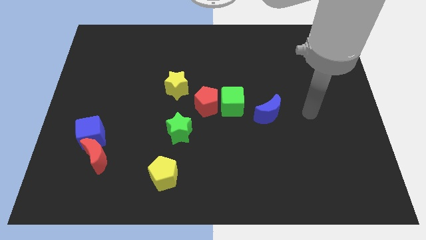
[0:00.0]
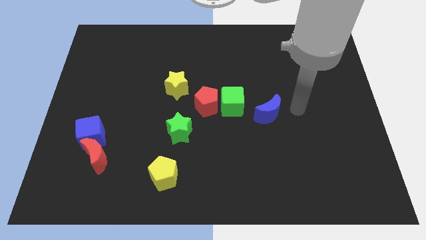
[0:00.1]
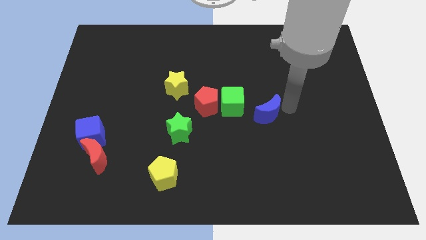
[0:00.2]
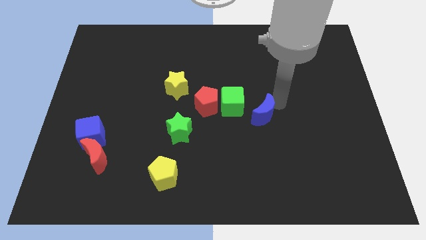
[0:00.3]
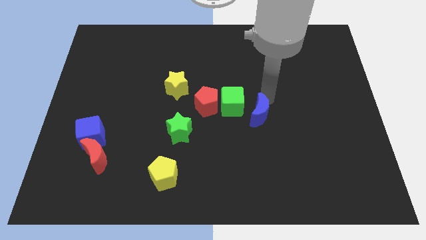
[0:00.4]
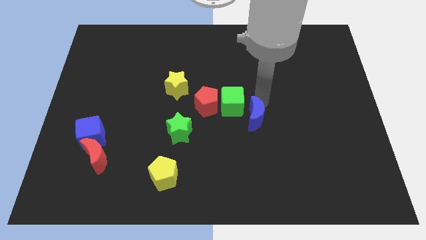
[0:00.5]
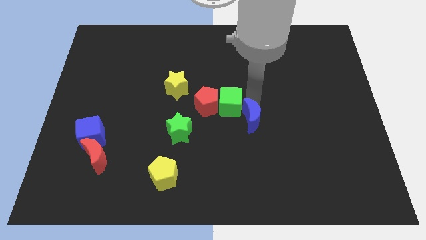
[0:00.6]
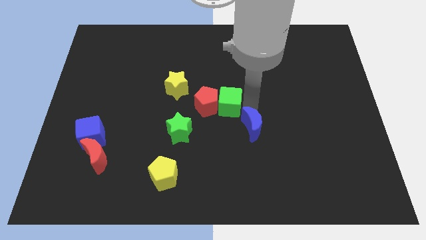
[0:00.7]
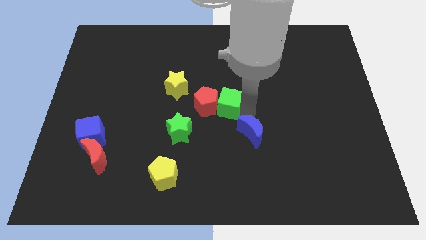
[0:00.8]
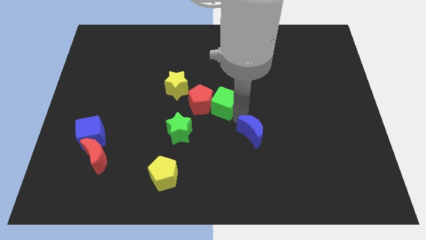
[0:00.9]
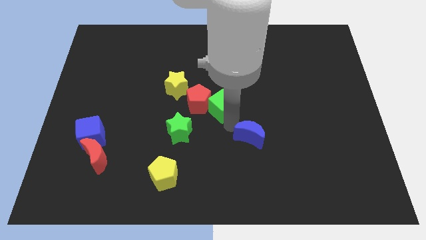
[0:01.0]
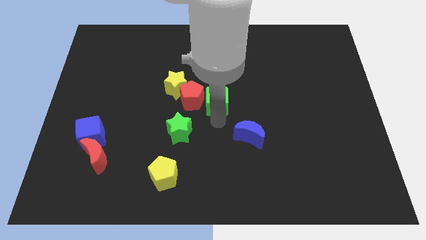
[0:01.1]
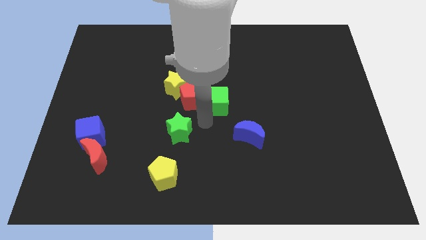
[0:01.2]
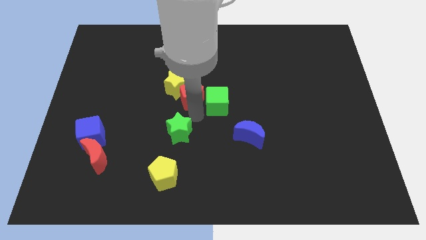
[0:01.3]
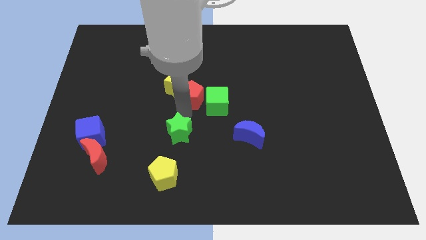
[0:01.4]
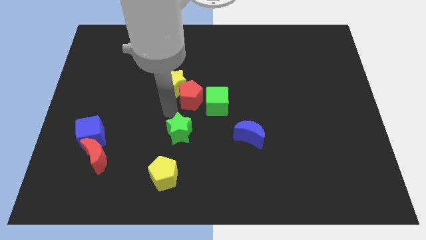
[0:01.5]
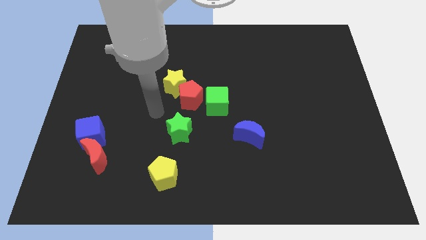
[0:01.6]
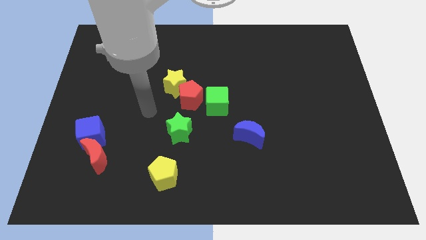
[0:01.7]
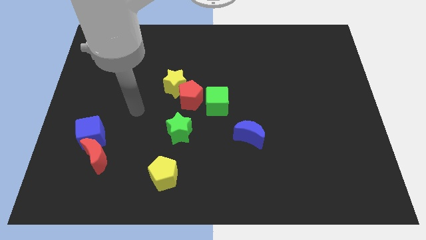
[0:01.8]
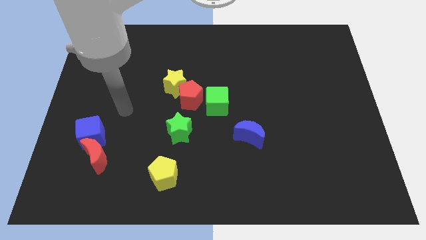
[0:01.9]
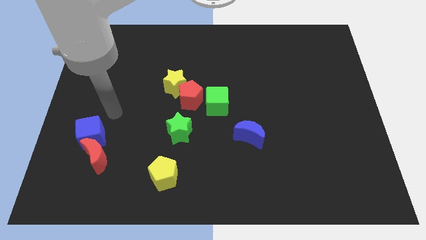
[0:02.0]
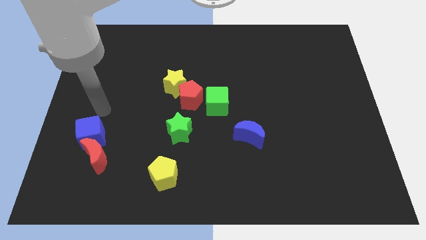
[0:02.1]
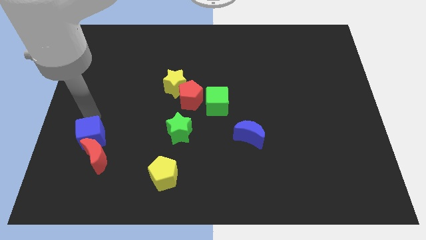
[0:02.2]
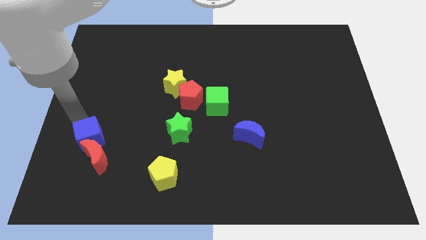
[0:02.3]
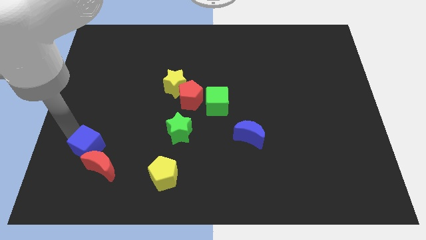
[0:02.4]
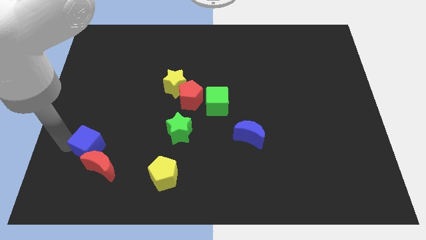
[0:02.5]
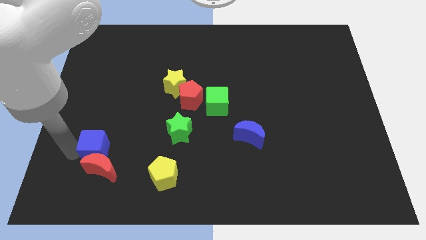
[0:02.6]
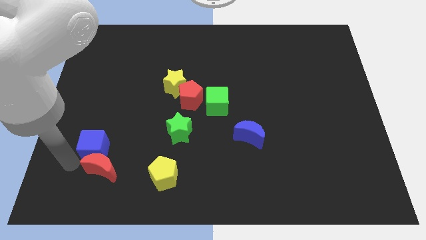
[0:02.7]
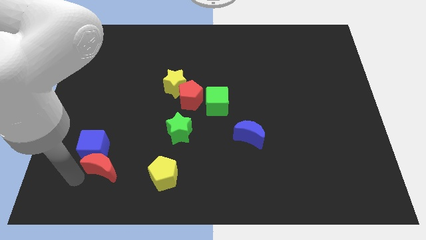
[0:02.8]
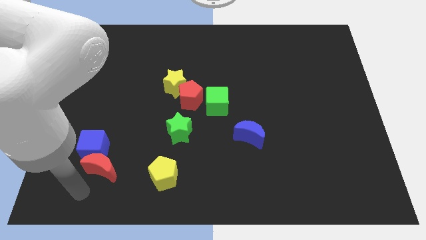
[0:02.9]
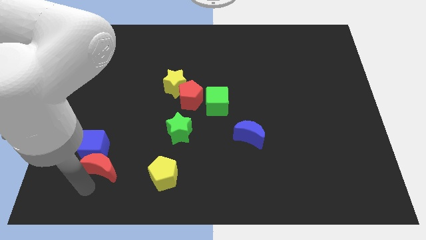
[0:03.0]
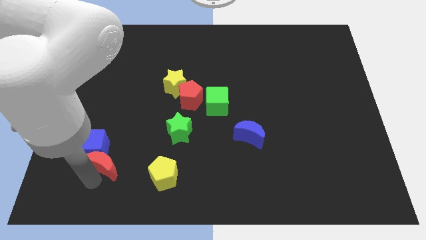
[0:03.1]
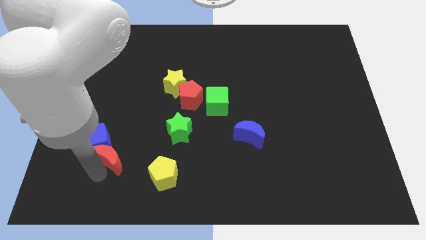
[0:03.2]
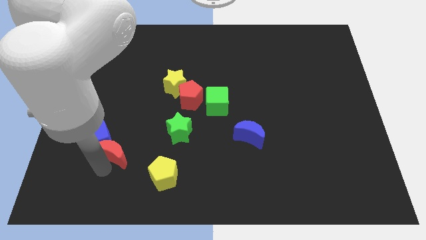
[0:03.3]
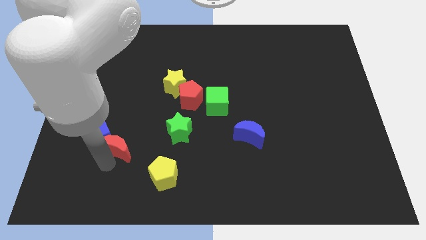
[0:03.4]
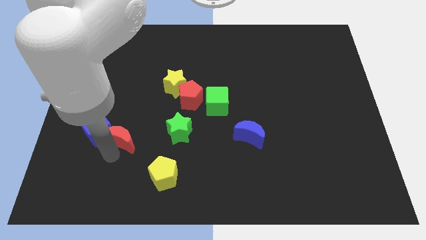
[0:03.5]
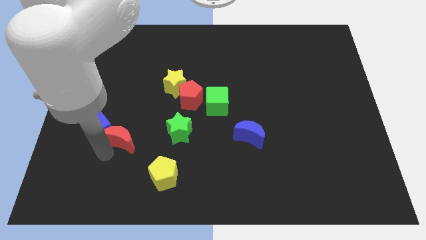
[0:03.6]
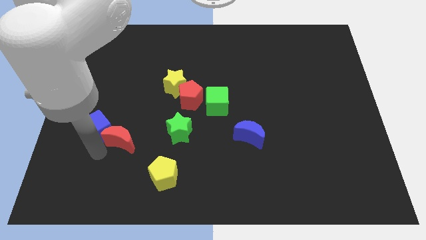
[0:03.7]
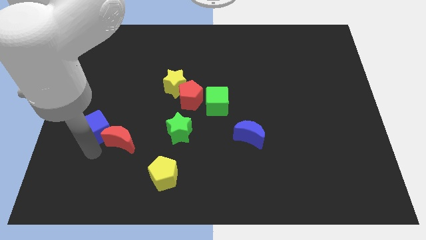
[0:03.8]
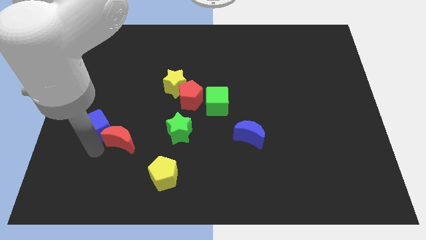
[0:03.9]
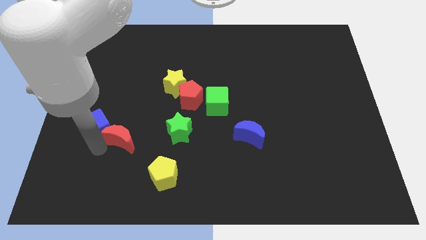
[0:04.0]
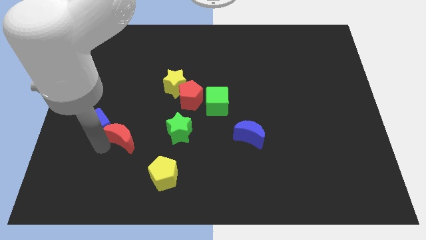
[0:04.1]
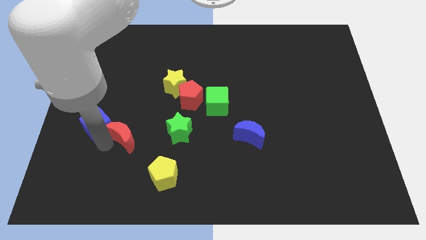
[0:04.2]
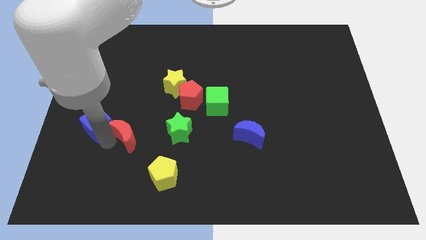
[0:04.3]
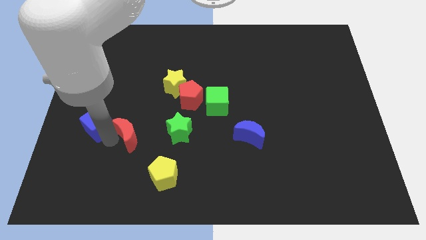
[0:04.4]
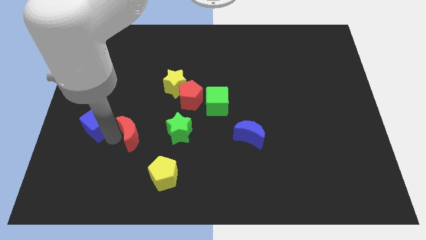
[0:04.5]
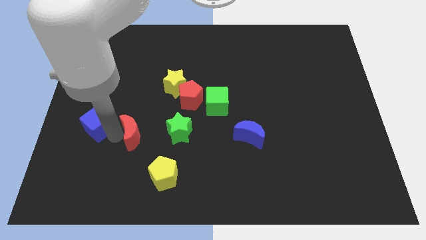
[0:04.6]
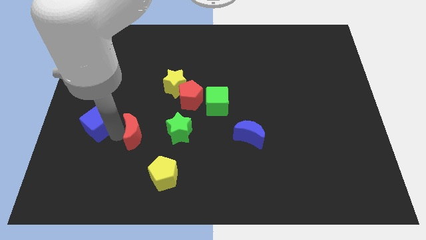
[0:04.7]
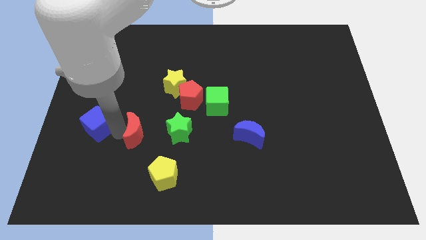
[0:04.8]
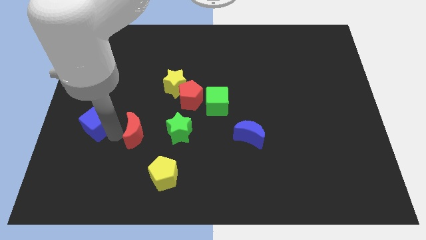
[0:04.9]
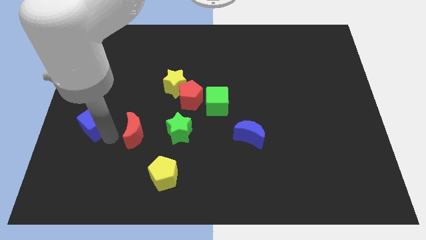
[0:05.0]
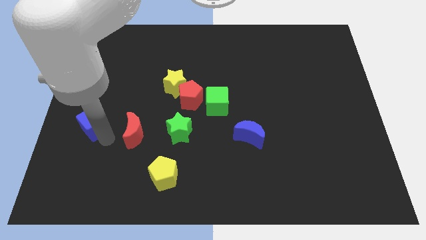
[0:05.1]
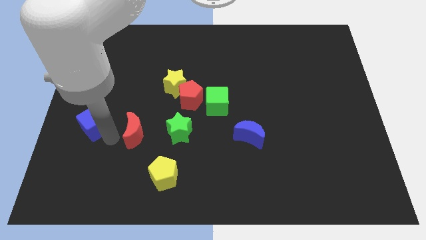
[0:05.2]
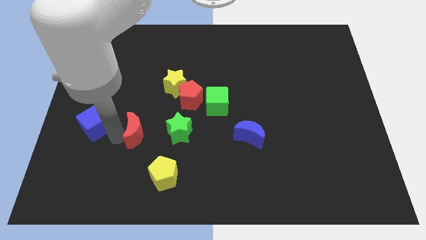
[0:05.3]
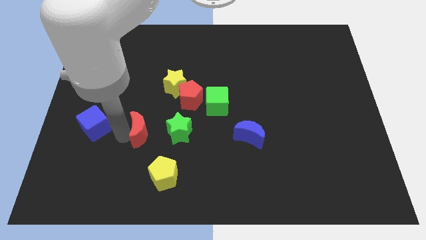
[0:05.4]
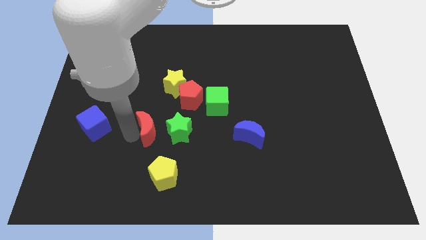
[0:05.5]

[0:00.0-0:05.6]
move the red moon to the top side of the yellow pentagon

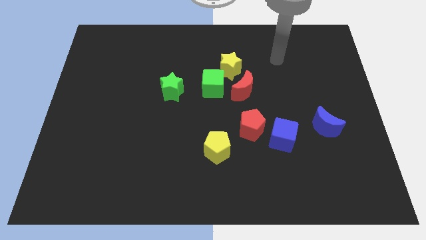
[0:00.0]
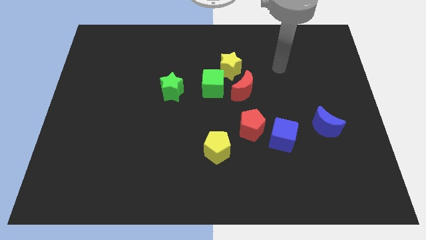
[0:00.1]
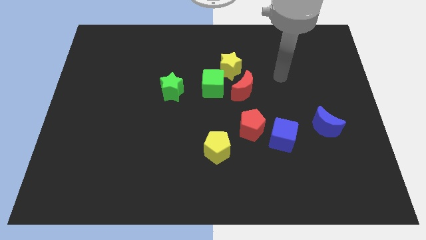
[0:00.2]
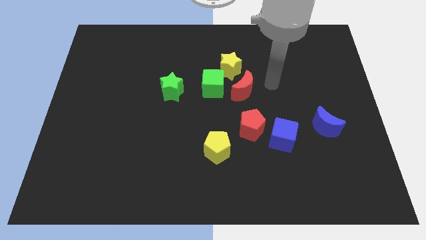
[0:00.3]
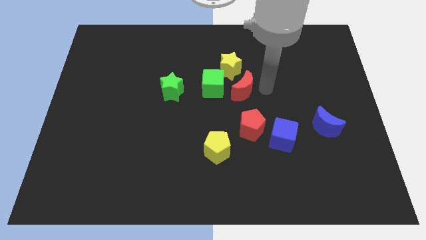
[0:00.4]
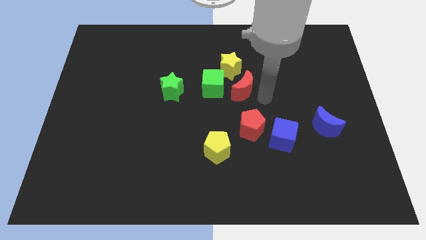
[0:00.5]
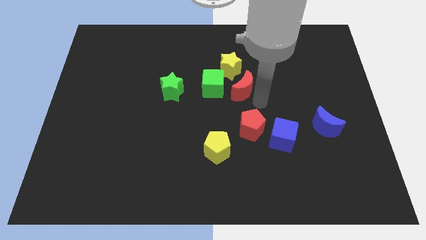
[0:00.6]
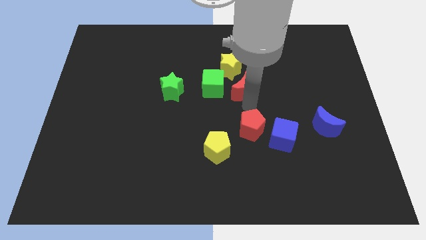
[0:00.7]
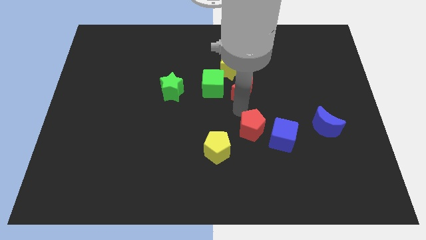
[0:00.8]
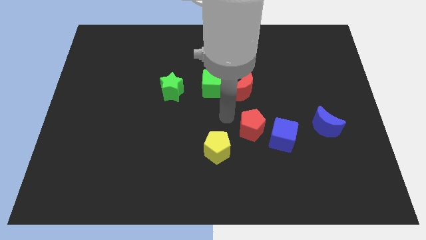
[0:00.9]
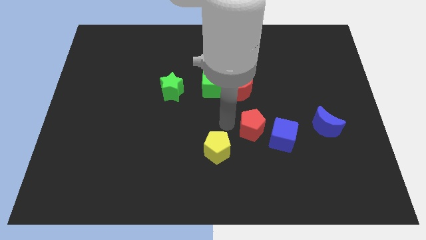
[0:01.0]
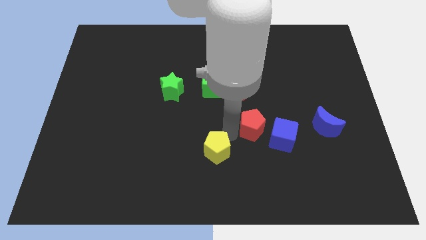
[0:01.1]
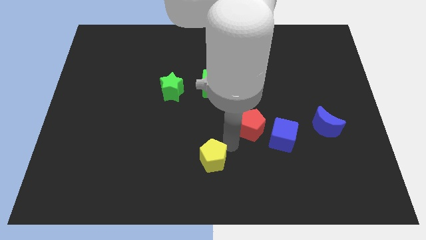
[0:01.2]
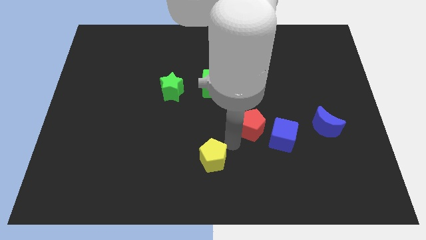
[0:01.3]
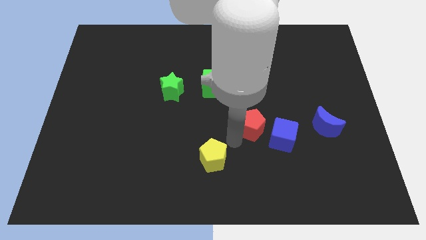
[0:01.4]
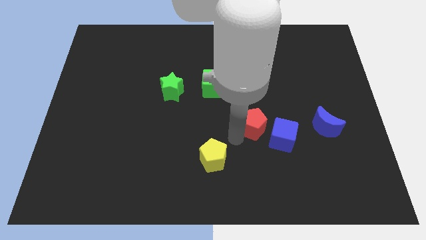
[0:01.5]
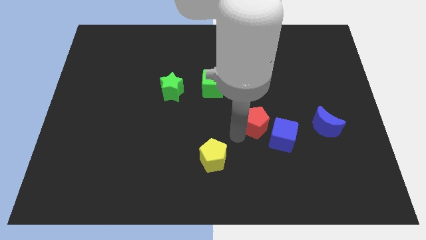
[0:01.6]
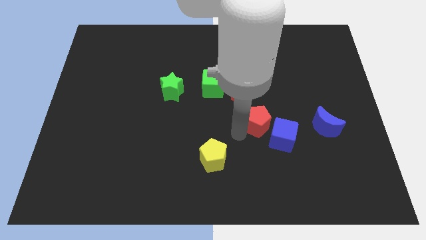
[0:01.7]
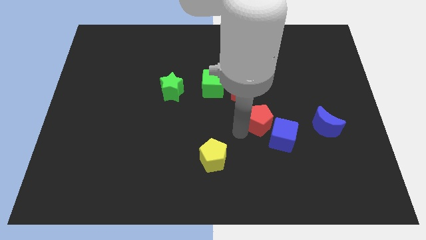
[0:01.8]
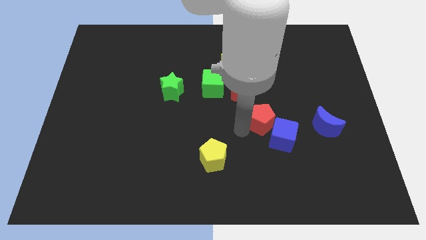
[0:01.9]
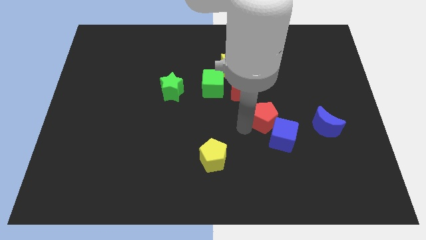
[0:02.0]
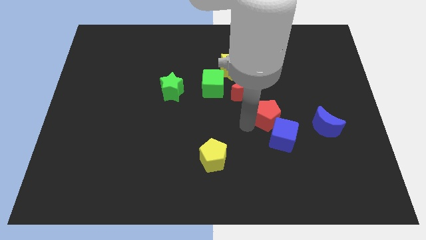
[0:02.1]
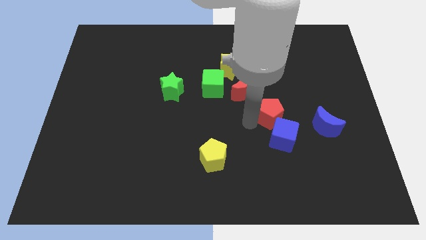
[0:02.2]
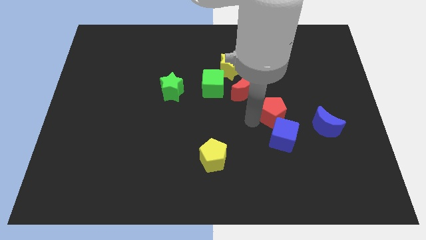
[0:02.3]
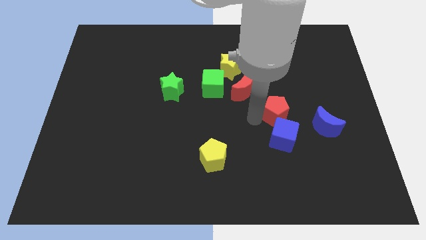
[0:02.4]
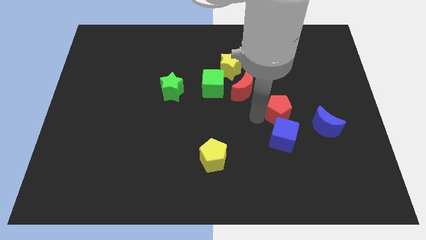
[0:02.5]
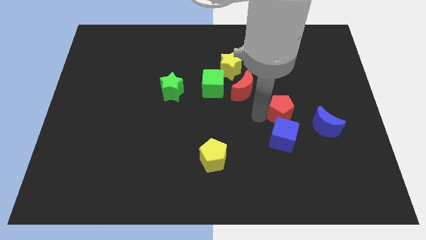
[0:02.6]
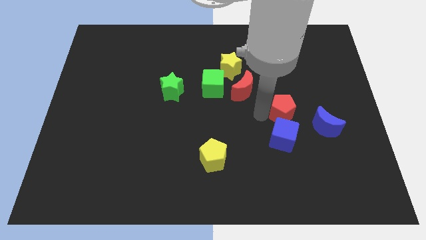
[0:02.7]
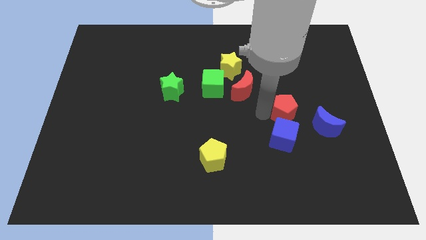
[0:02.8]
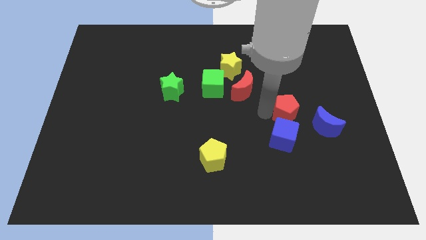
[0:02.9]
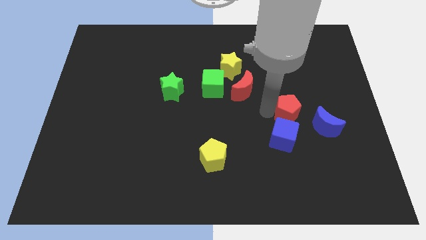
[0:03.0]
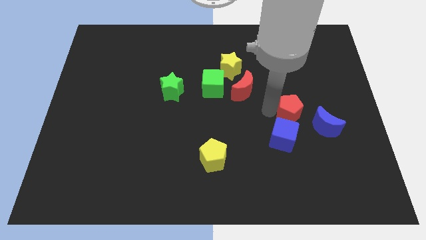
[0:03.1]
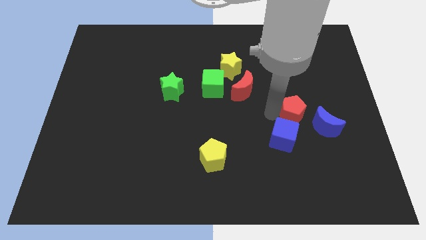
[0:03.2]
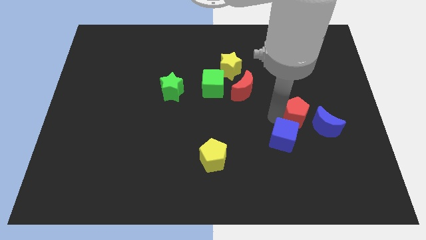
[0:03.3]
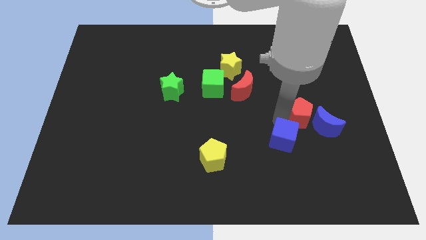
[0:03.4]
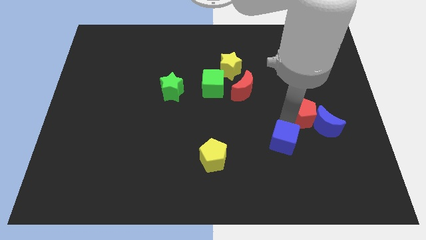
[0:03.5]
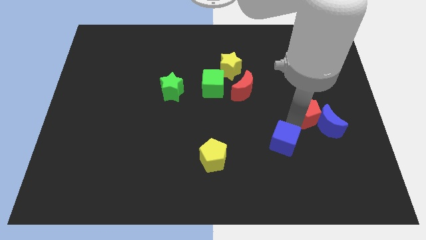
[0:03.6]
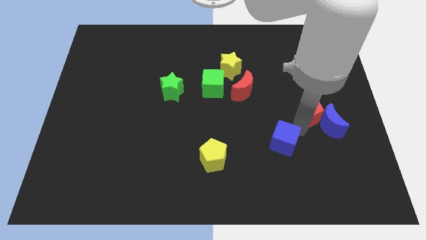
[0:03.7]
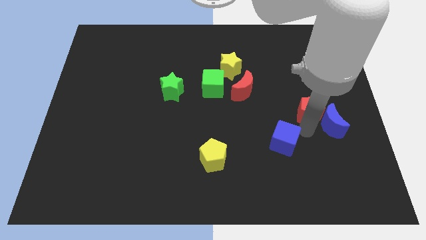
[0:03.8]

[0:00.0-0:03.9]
move the red pentagon above the blue moon
